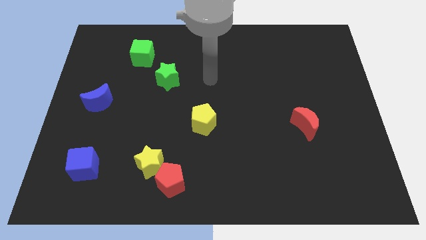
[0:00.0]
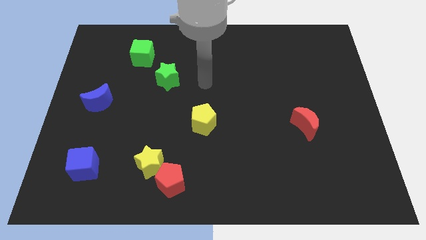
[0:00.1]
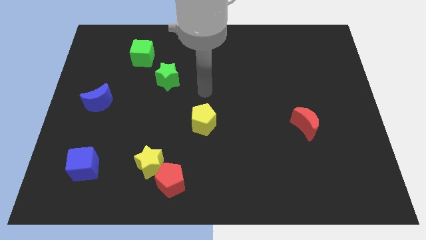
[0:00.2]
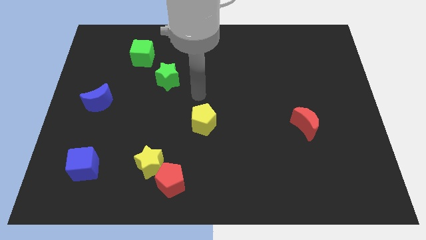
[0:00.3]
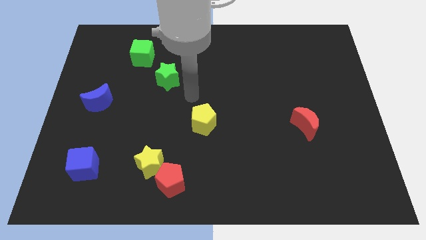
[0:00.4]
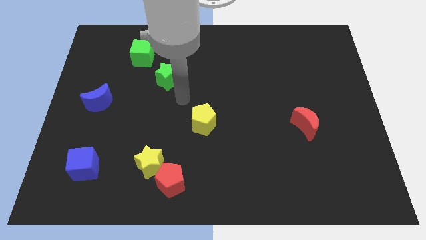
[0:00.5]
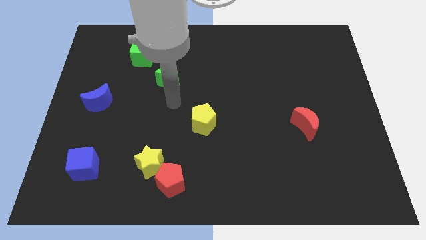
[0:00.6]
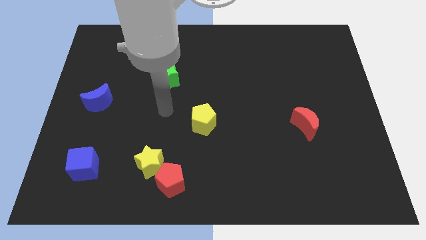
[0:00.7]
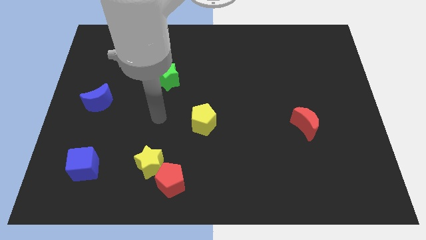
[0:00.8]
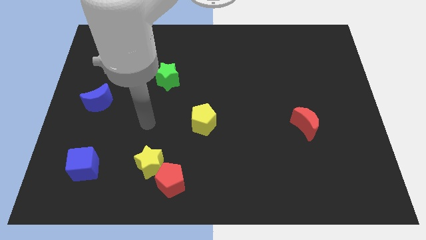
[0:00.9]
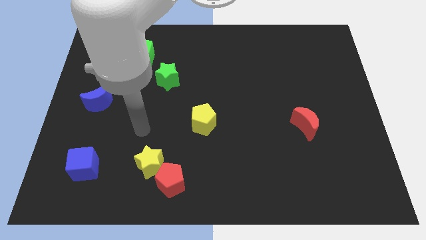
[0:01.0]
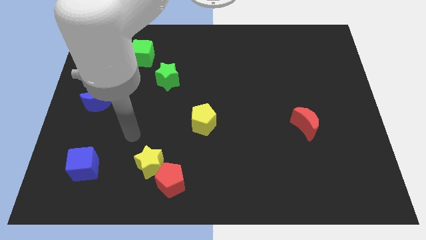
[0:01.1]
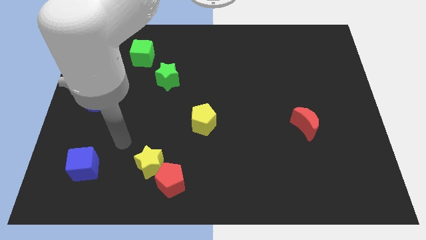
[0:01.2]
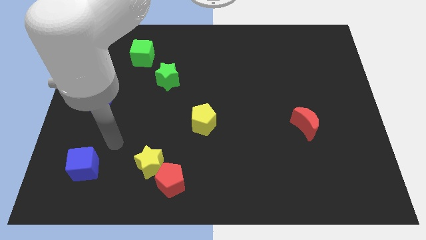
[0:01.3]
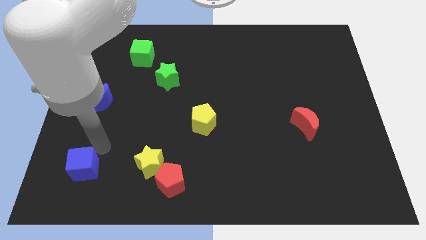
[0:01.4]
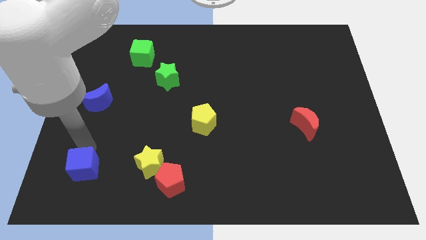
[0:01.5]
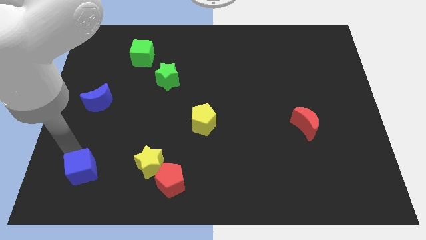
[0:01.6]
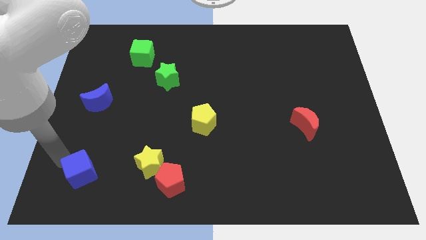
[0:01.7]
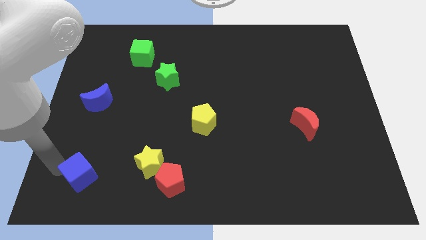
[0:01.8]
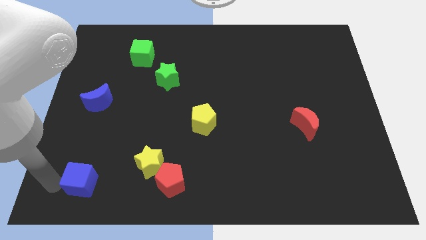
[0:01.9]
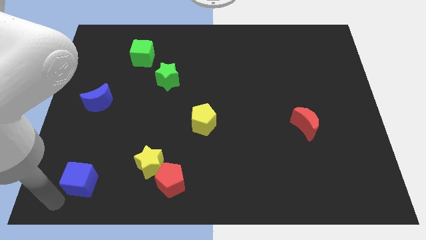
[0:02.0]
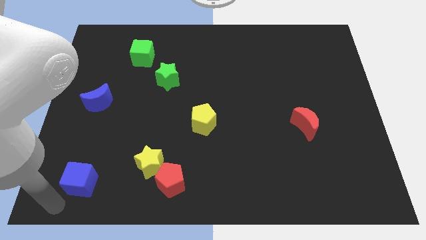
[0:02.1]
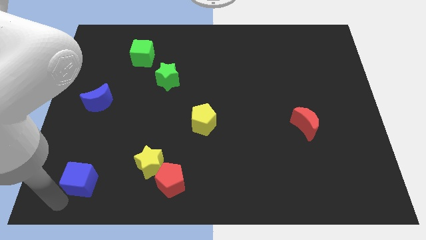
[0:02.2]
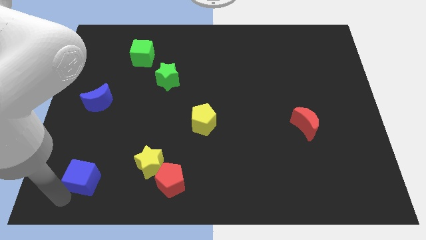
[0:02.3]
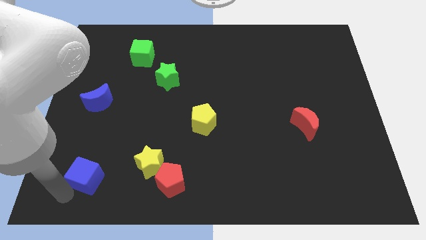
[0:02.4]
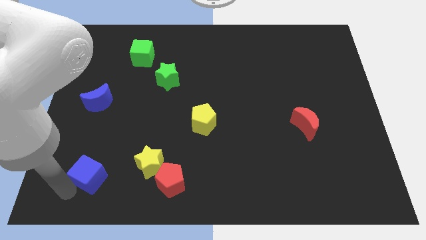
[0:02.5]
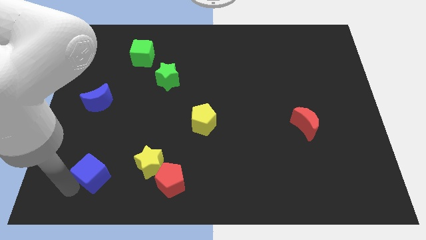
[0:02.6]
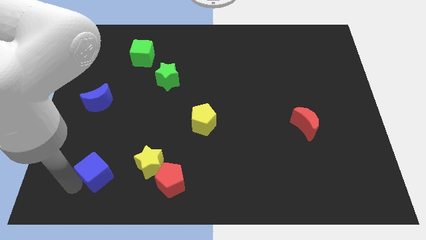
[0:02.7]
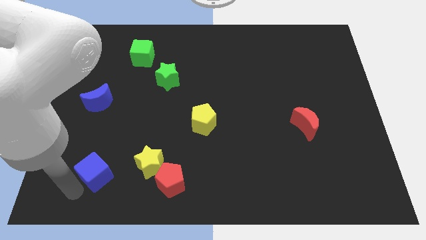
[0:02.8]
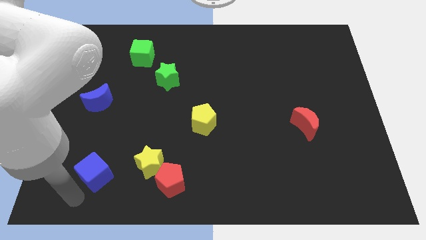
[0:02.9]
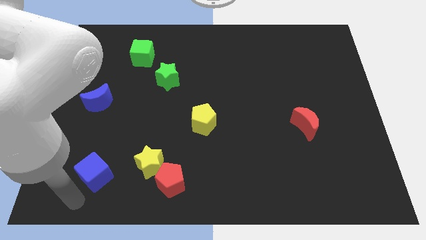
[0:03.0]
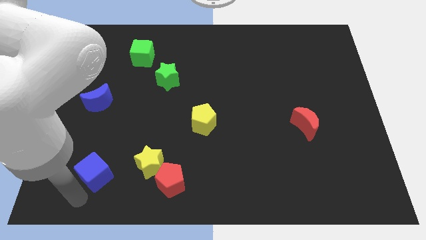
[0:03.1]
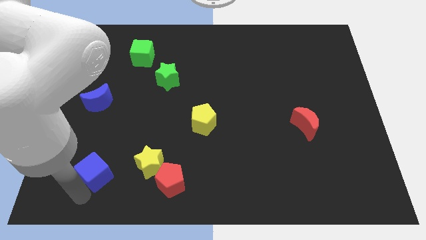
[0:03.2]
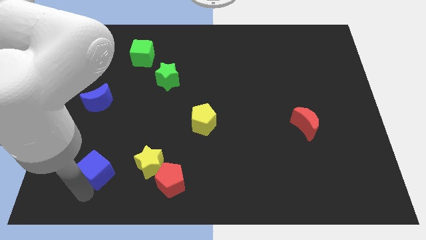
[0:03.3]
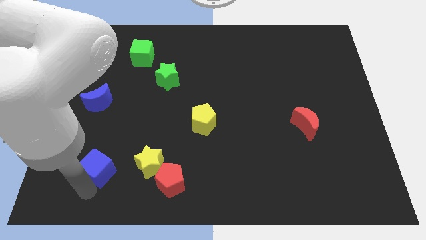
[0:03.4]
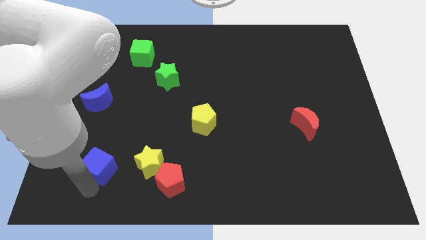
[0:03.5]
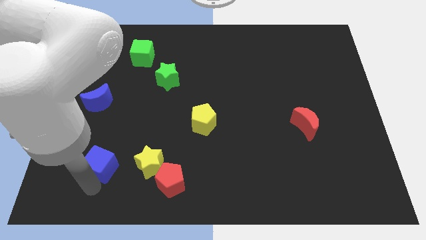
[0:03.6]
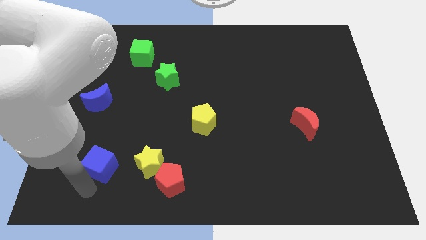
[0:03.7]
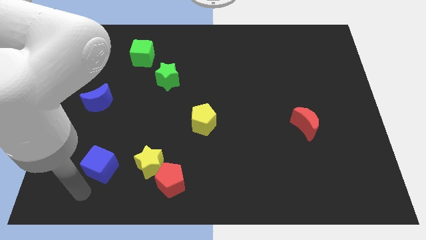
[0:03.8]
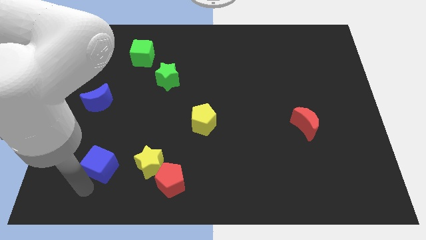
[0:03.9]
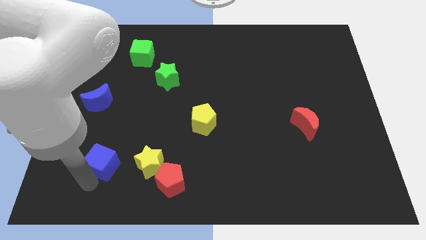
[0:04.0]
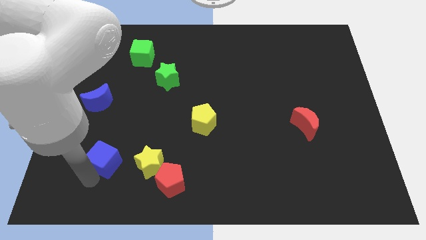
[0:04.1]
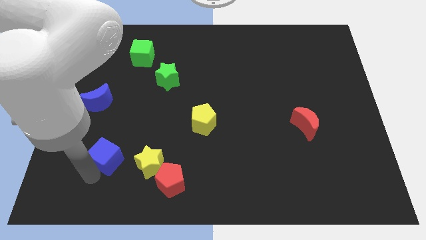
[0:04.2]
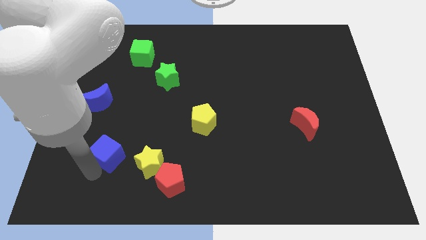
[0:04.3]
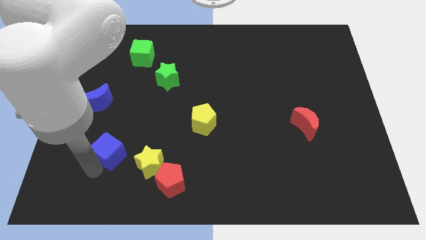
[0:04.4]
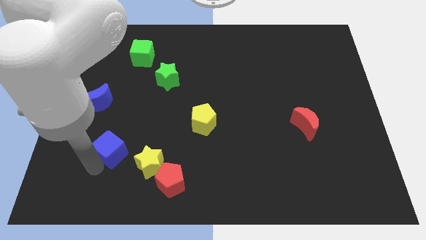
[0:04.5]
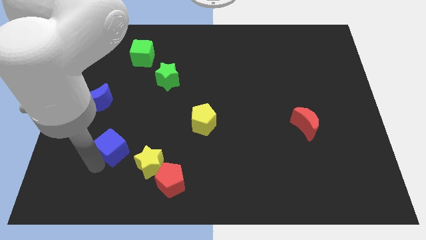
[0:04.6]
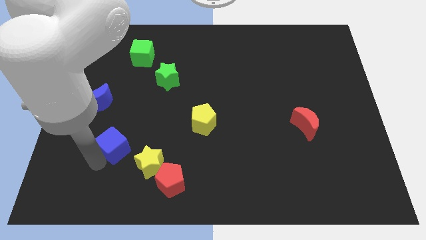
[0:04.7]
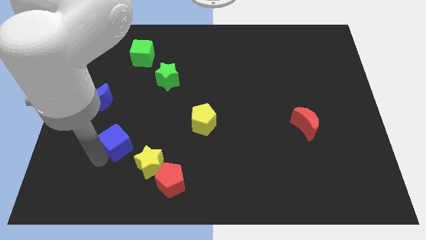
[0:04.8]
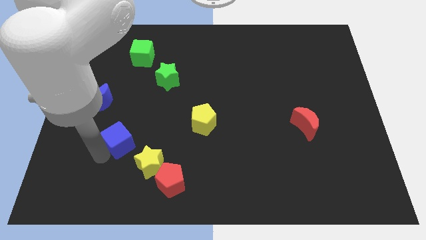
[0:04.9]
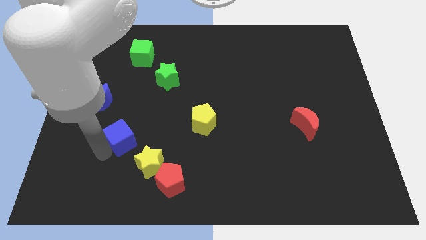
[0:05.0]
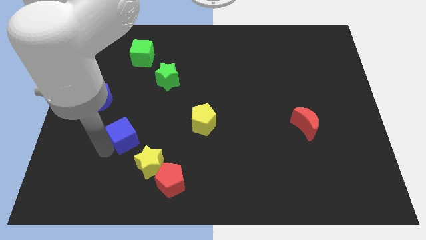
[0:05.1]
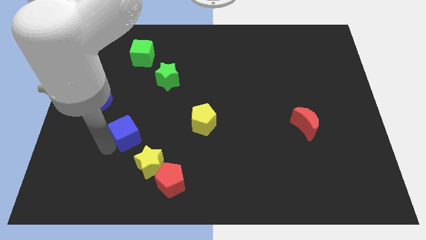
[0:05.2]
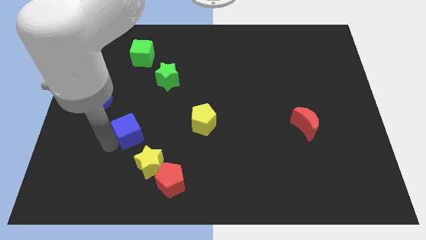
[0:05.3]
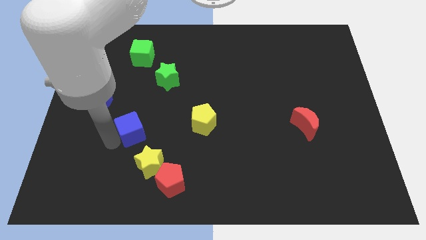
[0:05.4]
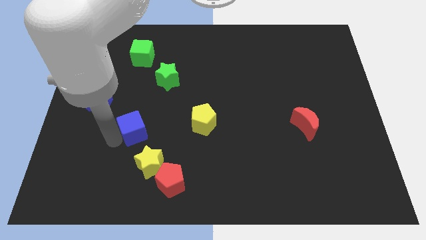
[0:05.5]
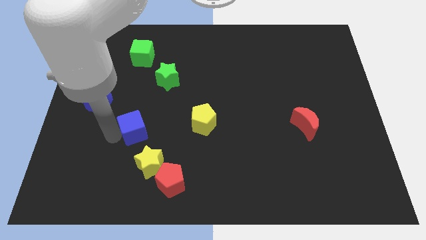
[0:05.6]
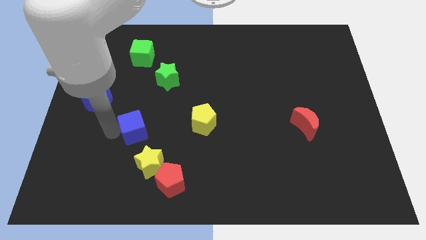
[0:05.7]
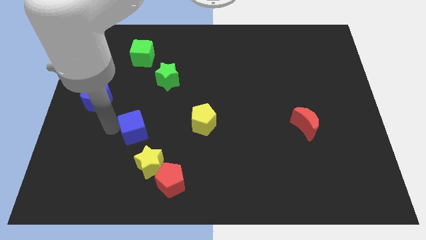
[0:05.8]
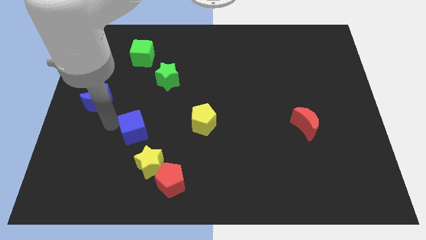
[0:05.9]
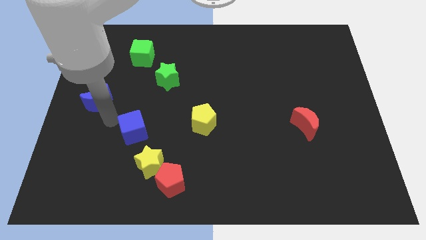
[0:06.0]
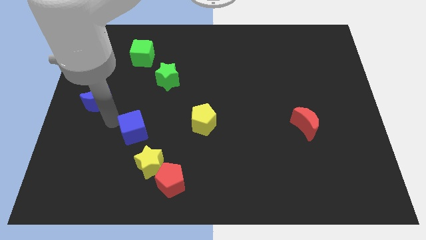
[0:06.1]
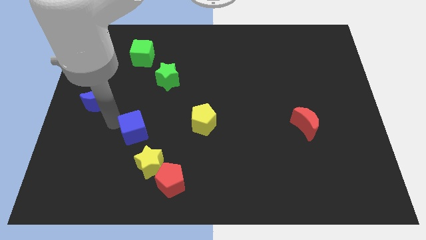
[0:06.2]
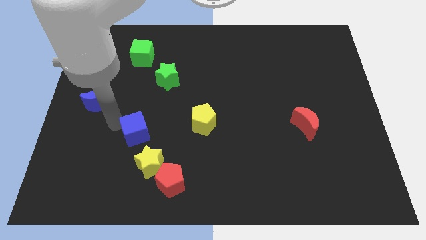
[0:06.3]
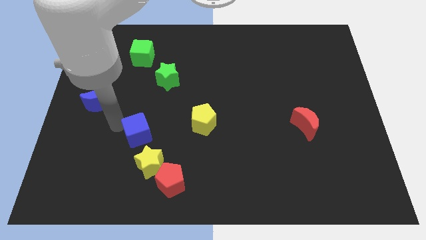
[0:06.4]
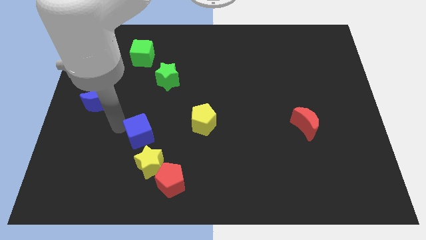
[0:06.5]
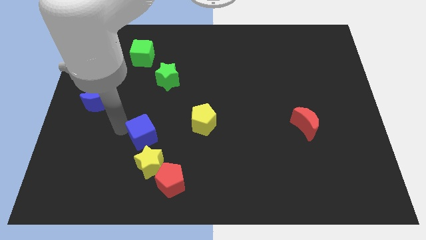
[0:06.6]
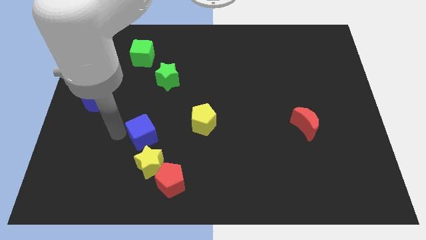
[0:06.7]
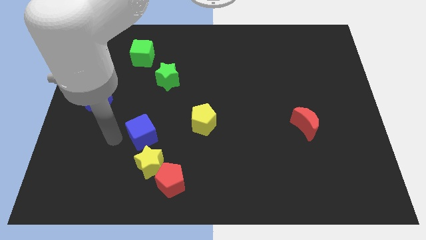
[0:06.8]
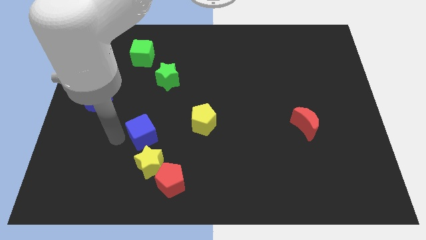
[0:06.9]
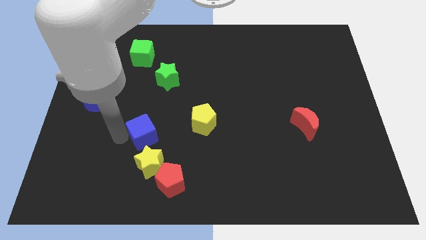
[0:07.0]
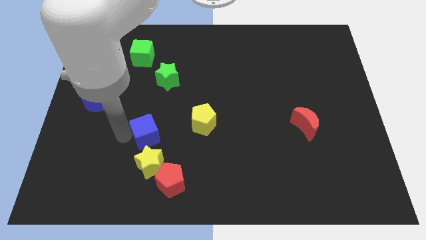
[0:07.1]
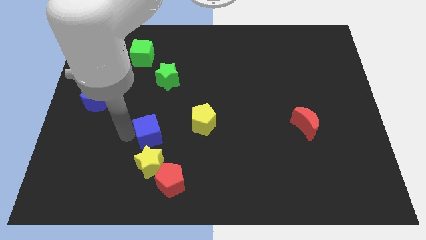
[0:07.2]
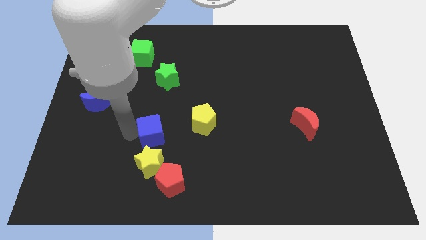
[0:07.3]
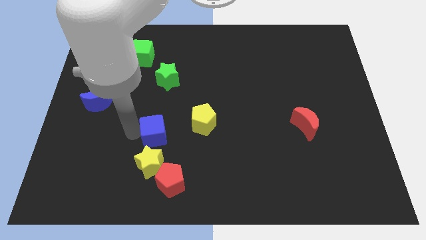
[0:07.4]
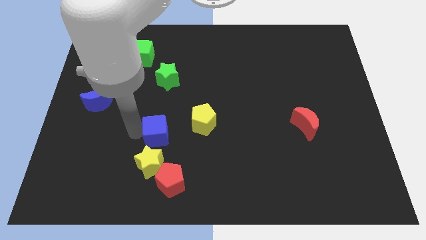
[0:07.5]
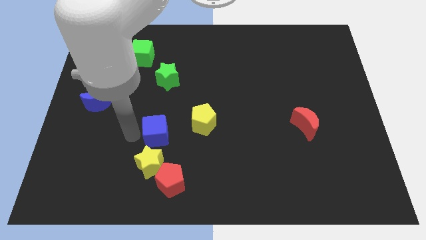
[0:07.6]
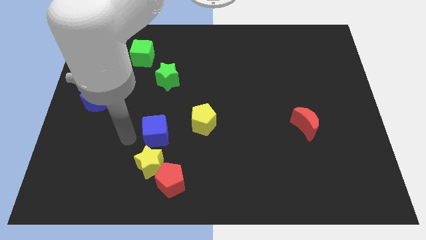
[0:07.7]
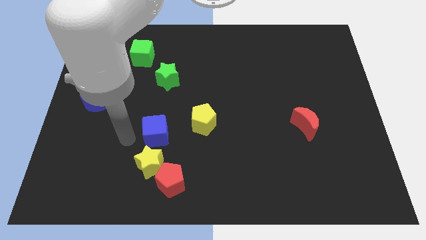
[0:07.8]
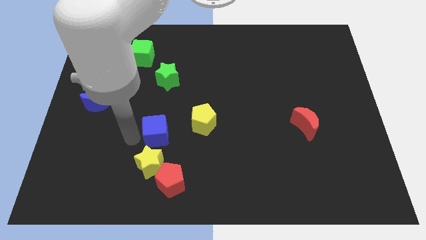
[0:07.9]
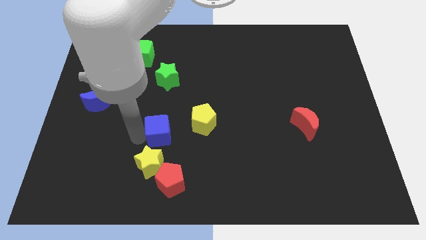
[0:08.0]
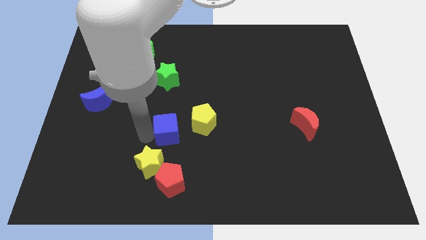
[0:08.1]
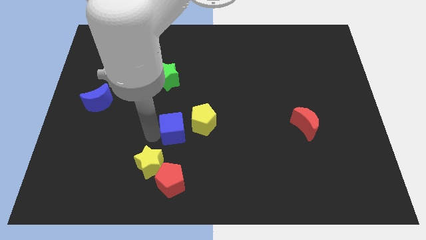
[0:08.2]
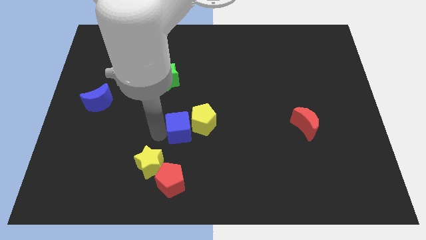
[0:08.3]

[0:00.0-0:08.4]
move the blue cube towards the yellow pentagon
